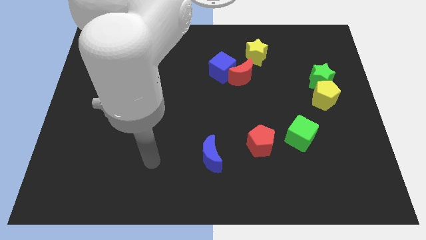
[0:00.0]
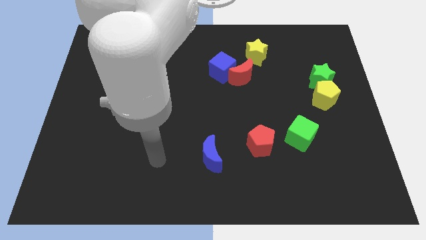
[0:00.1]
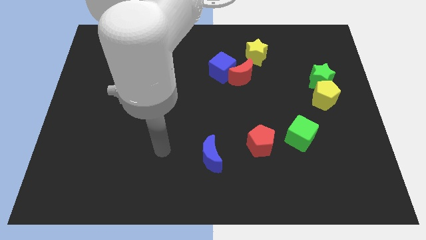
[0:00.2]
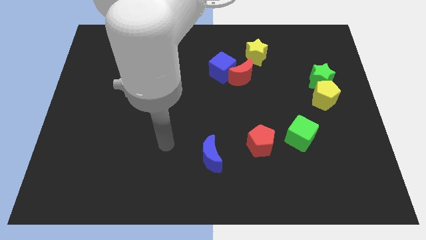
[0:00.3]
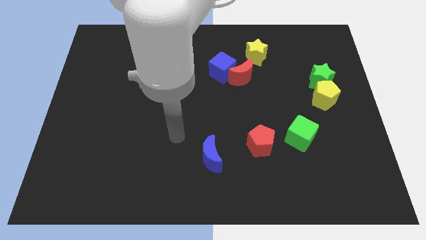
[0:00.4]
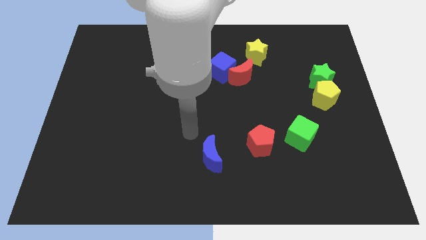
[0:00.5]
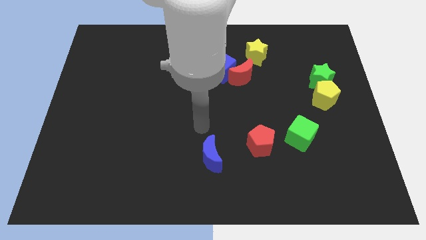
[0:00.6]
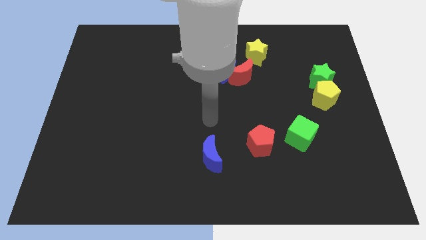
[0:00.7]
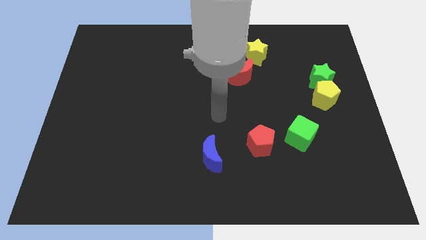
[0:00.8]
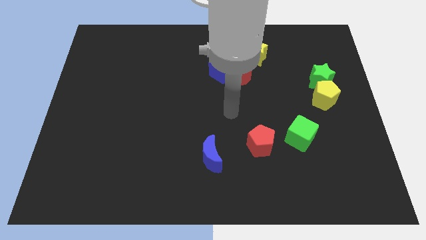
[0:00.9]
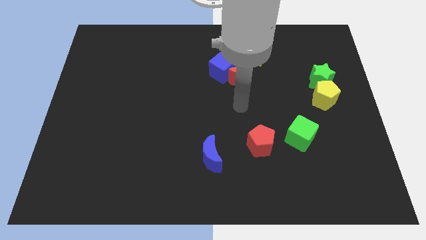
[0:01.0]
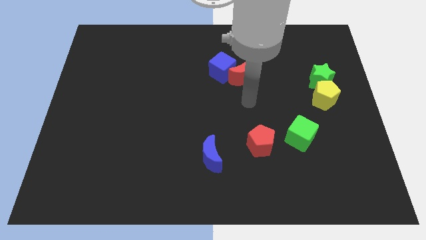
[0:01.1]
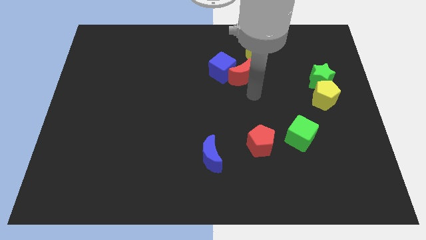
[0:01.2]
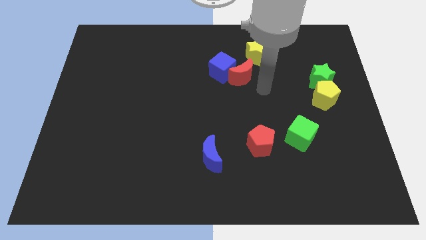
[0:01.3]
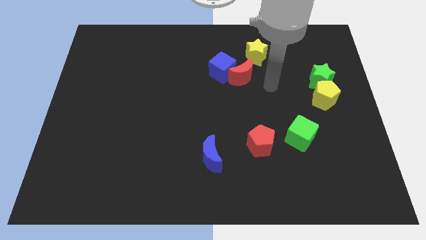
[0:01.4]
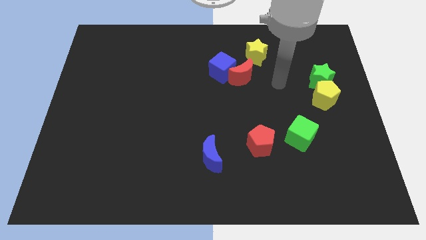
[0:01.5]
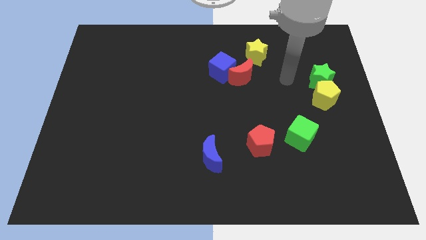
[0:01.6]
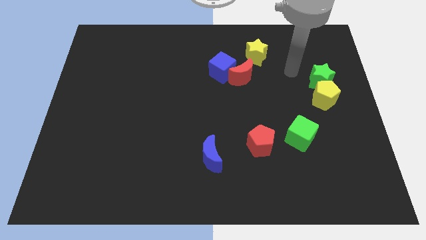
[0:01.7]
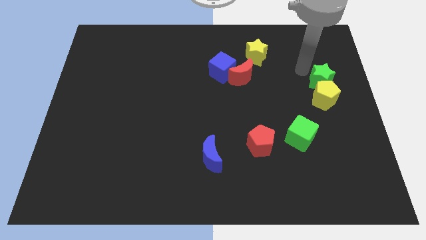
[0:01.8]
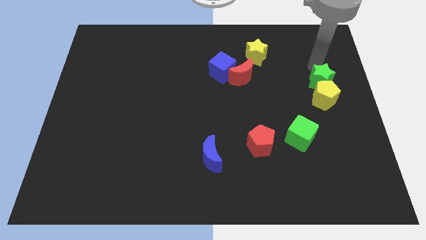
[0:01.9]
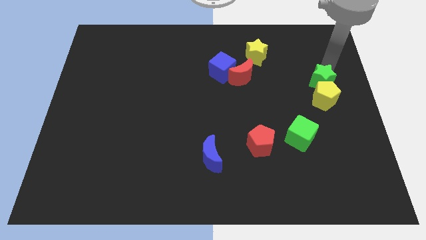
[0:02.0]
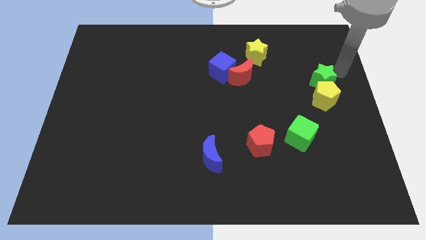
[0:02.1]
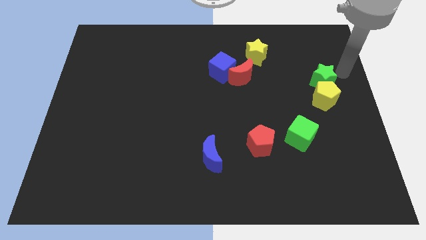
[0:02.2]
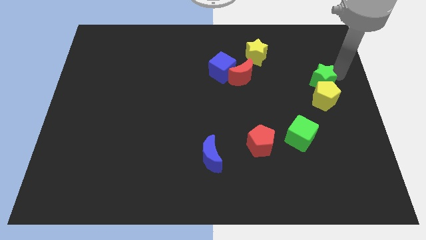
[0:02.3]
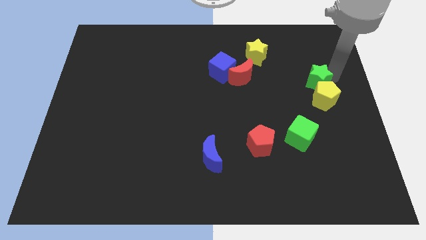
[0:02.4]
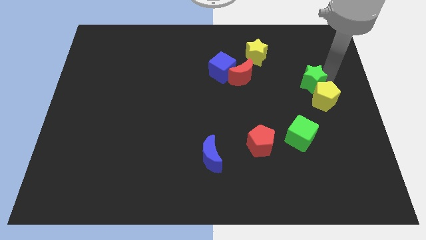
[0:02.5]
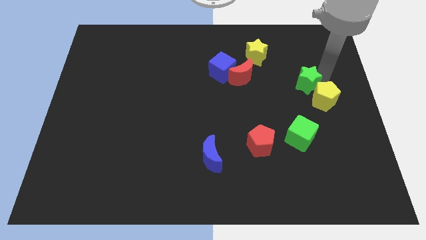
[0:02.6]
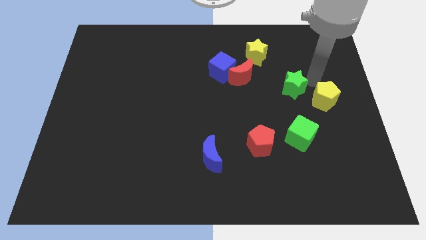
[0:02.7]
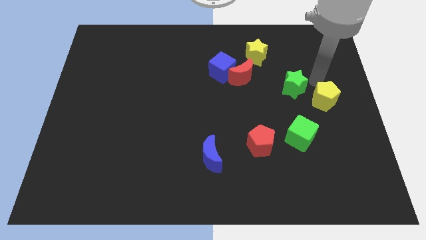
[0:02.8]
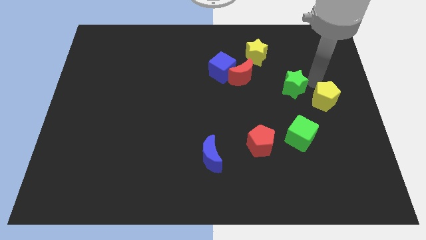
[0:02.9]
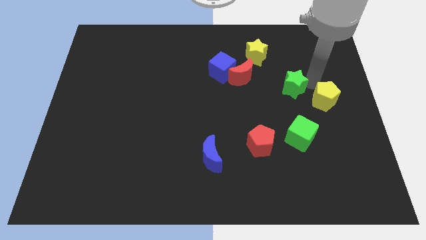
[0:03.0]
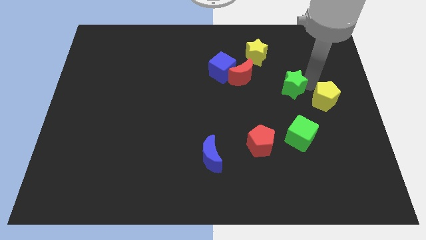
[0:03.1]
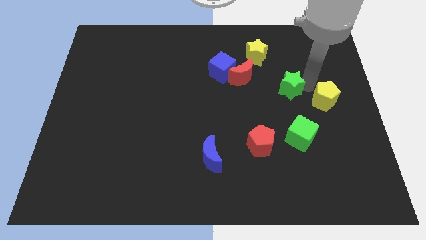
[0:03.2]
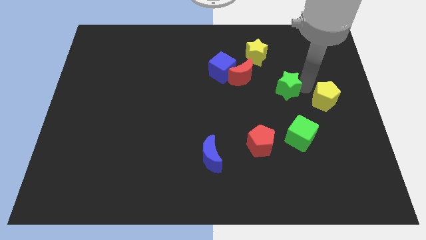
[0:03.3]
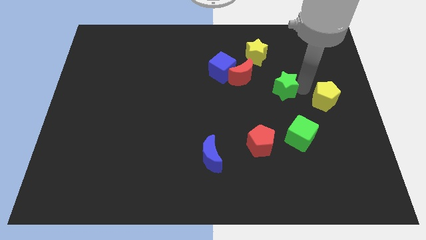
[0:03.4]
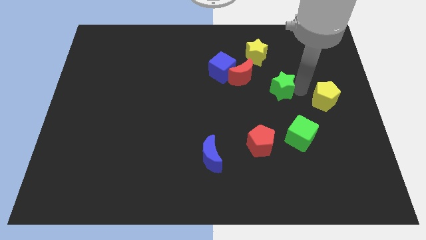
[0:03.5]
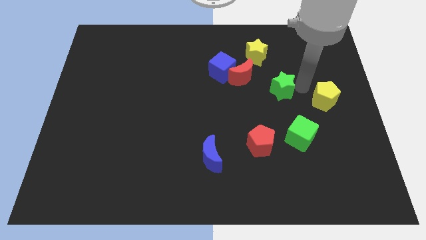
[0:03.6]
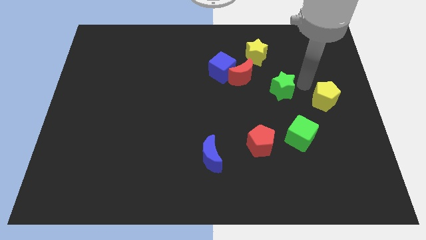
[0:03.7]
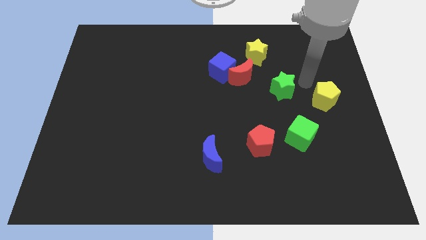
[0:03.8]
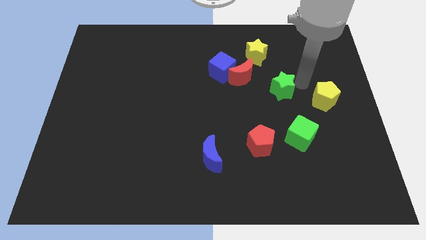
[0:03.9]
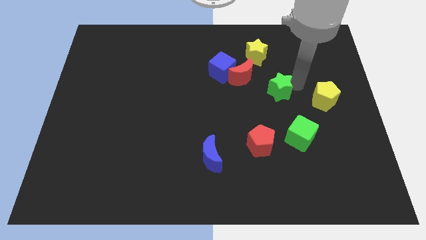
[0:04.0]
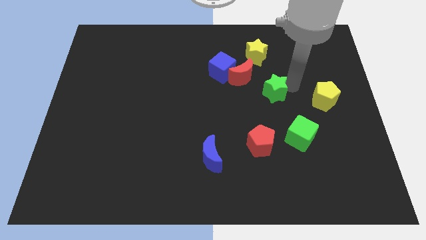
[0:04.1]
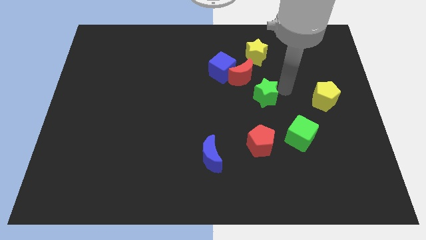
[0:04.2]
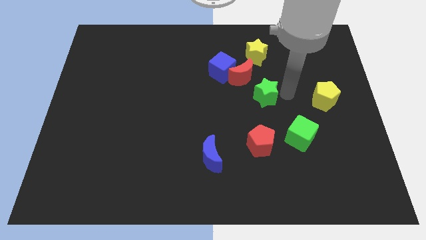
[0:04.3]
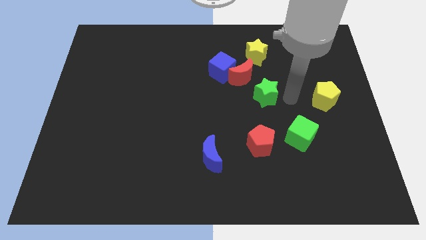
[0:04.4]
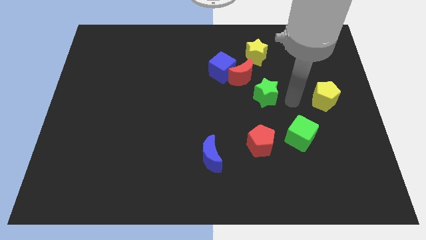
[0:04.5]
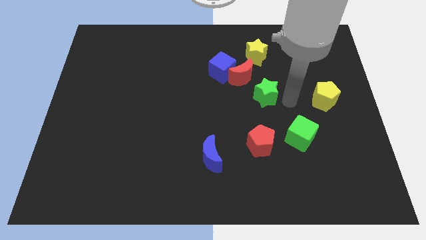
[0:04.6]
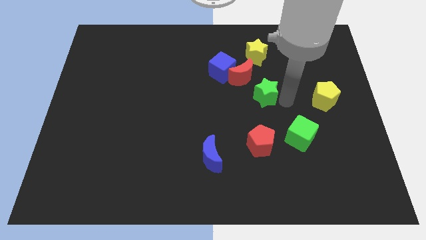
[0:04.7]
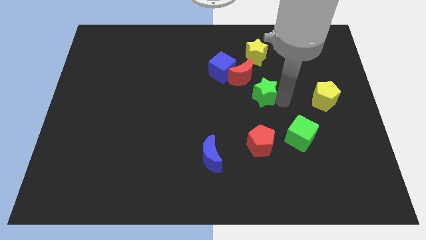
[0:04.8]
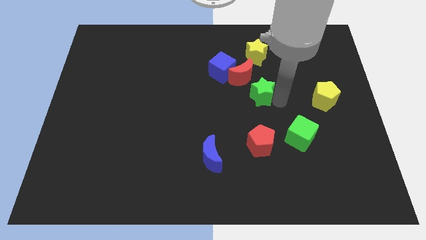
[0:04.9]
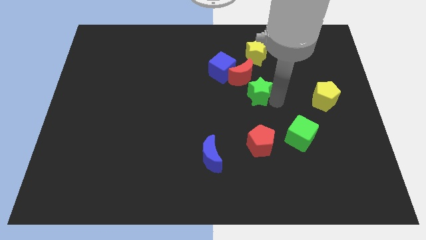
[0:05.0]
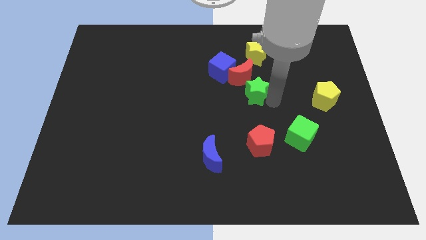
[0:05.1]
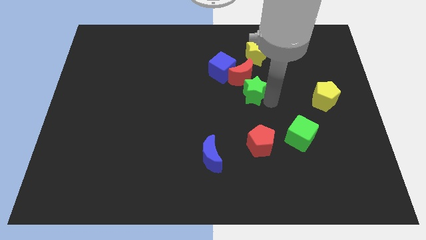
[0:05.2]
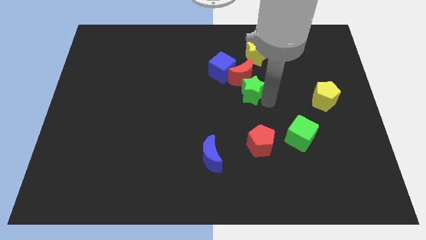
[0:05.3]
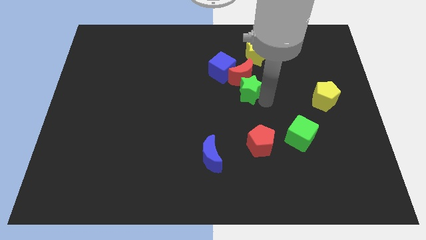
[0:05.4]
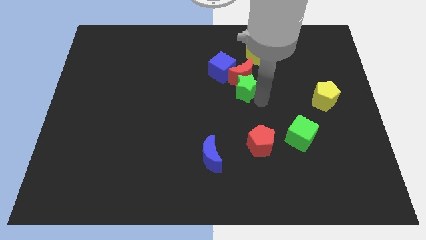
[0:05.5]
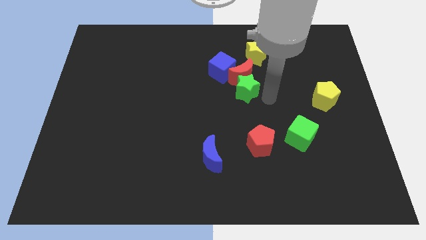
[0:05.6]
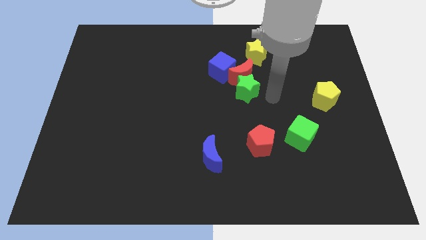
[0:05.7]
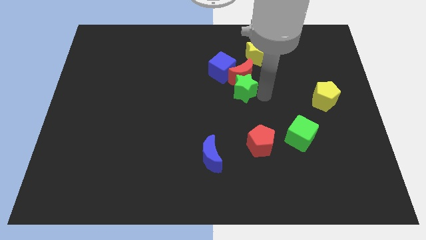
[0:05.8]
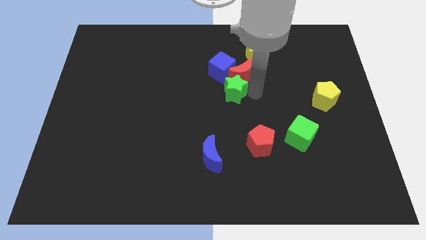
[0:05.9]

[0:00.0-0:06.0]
push the green star left

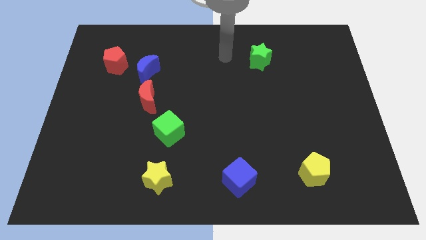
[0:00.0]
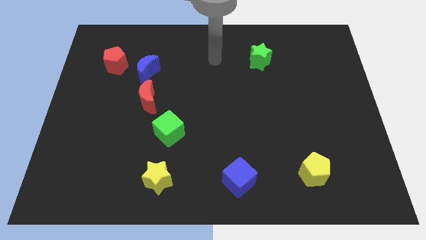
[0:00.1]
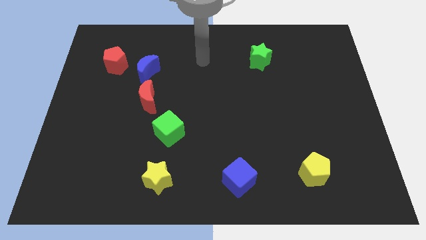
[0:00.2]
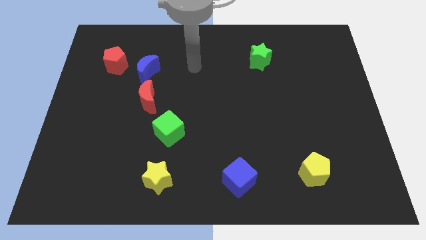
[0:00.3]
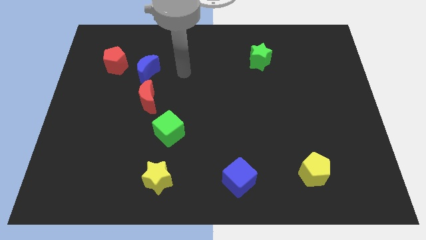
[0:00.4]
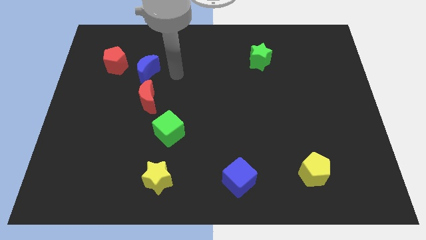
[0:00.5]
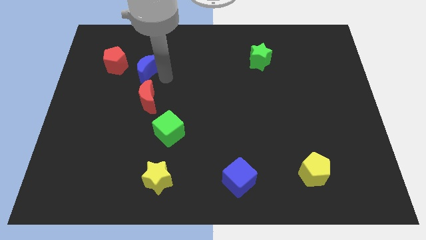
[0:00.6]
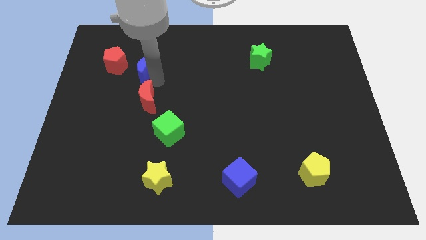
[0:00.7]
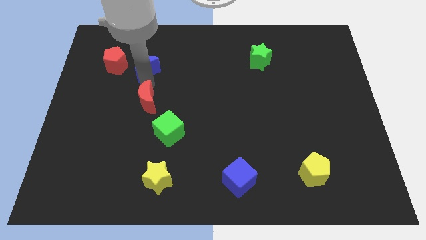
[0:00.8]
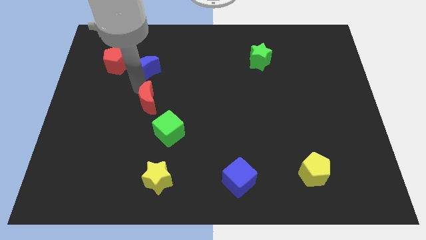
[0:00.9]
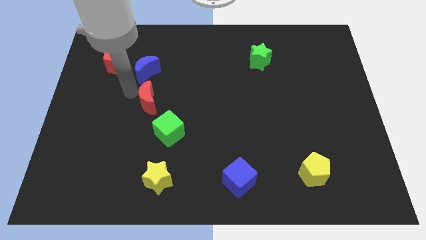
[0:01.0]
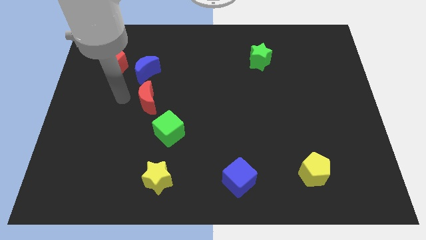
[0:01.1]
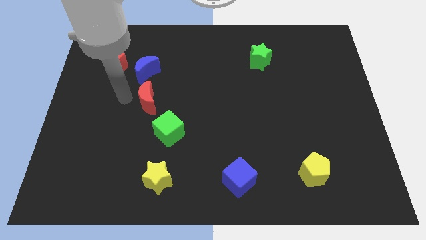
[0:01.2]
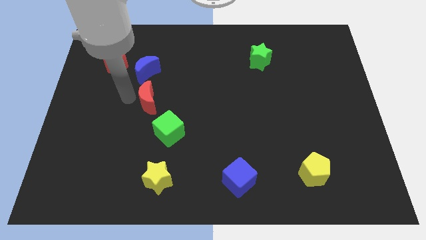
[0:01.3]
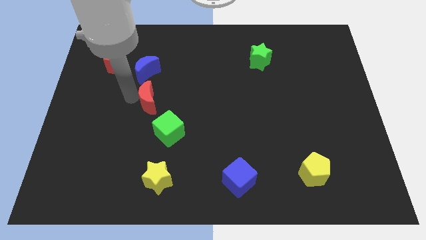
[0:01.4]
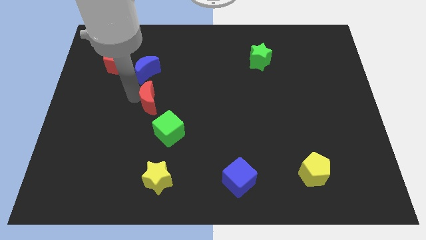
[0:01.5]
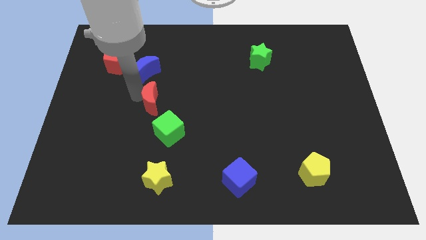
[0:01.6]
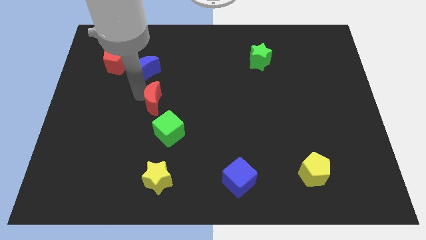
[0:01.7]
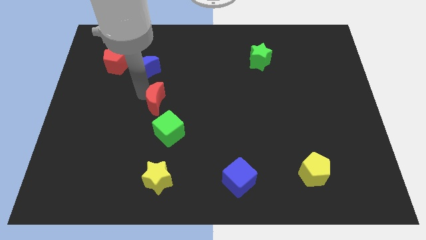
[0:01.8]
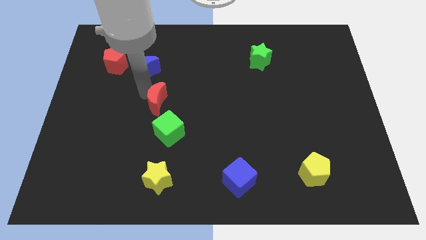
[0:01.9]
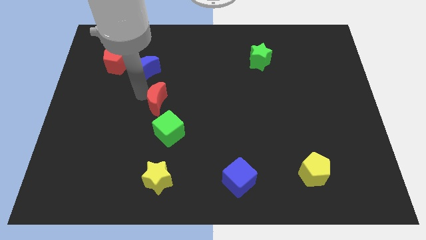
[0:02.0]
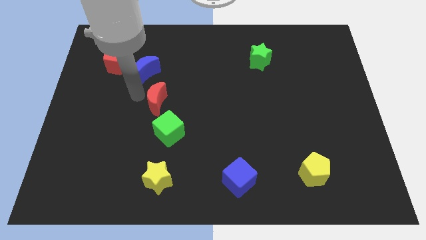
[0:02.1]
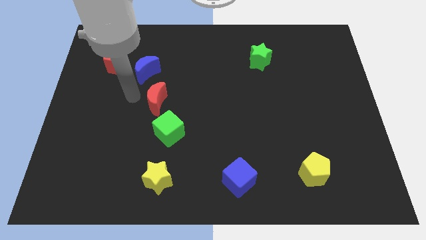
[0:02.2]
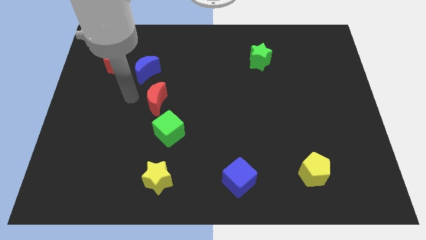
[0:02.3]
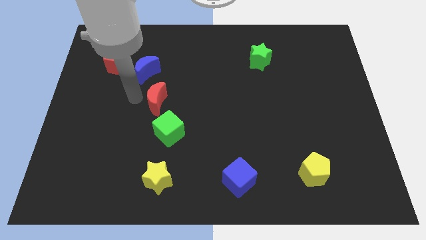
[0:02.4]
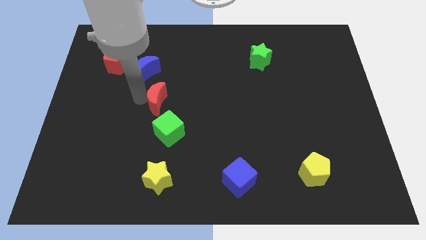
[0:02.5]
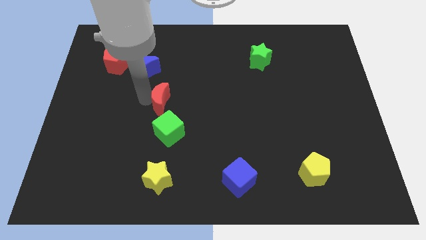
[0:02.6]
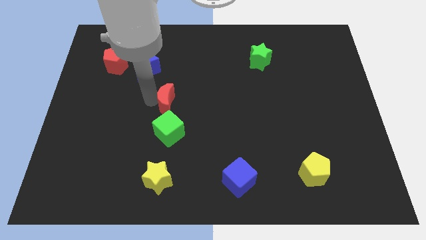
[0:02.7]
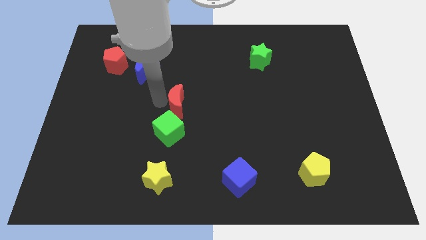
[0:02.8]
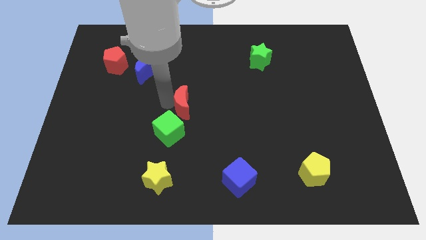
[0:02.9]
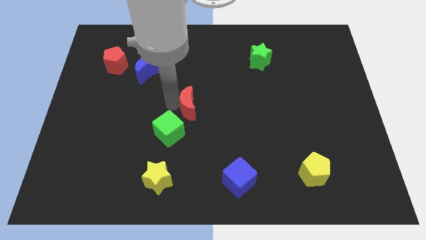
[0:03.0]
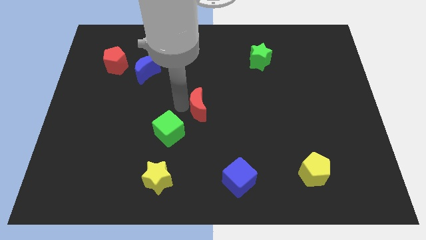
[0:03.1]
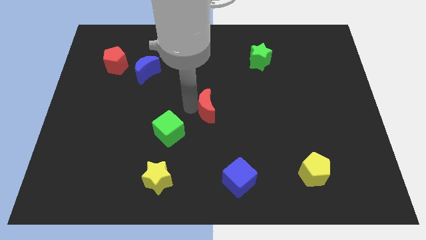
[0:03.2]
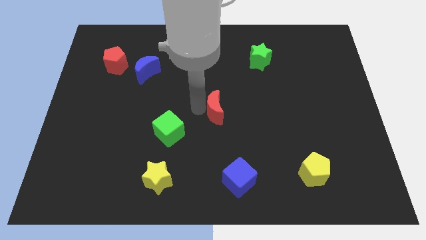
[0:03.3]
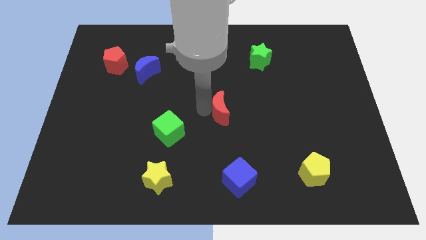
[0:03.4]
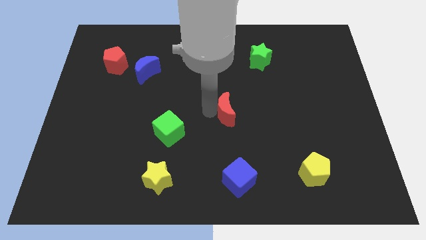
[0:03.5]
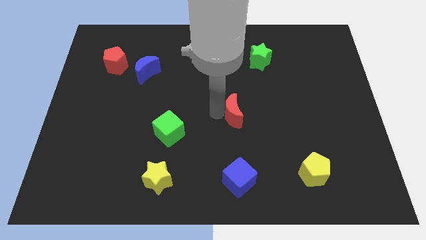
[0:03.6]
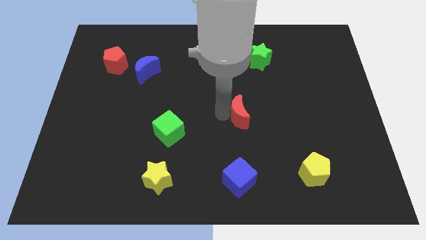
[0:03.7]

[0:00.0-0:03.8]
move the red moon to the right
